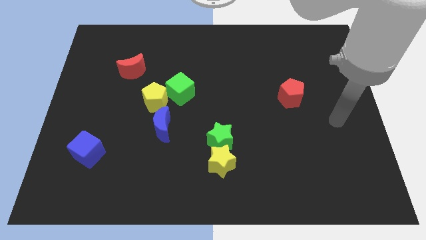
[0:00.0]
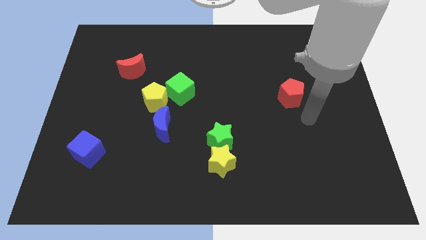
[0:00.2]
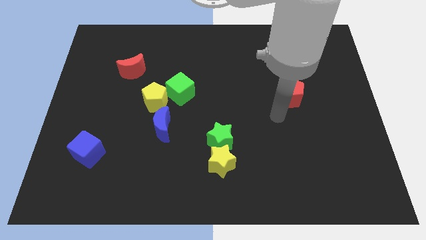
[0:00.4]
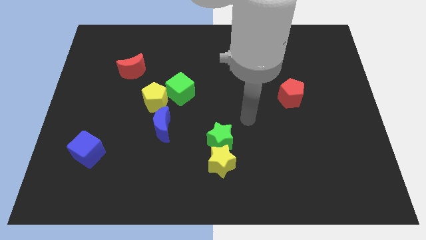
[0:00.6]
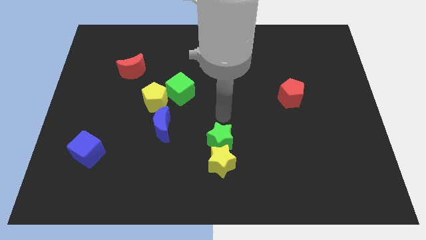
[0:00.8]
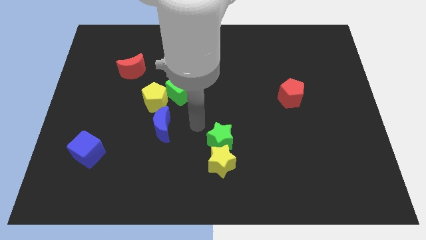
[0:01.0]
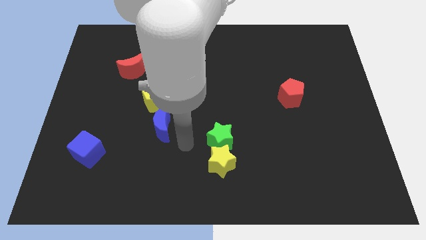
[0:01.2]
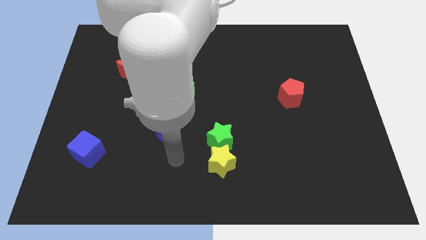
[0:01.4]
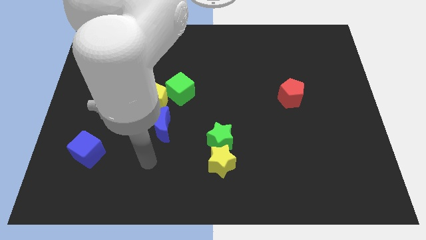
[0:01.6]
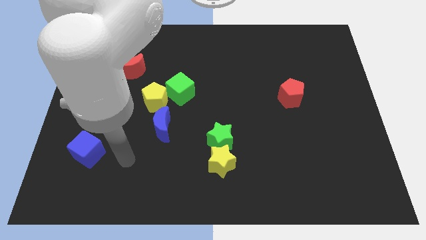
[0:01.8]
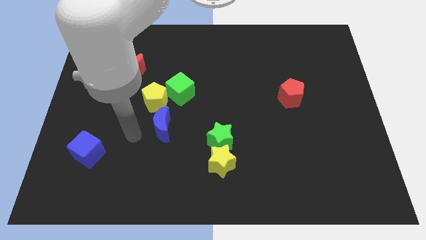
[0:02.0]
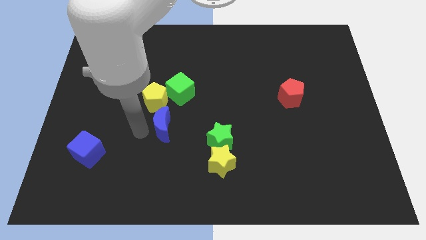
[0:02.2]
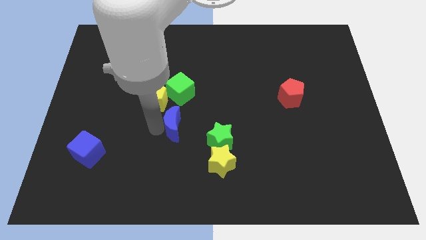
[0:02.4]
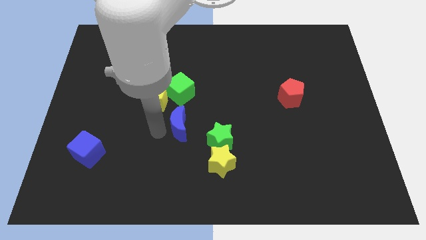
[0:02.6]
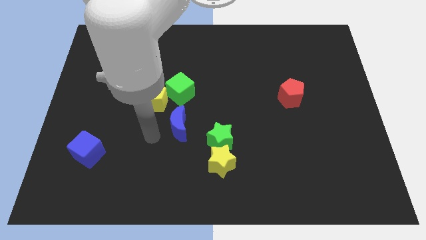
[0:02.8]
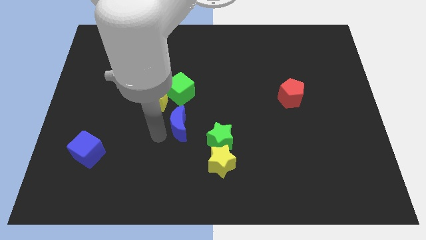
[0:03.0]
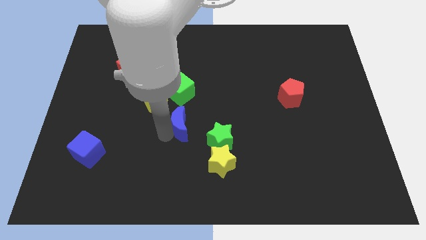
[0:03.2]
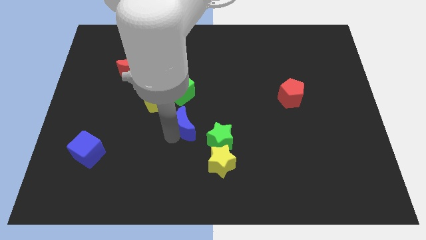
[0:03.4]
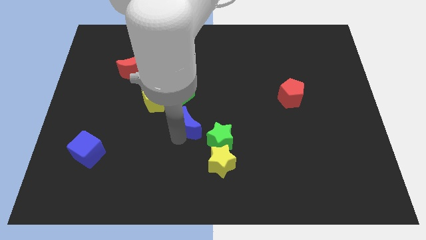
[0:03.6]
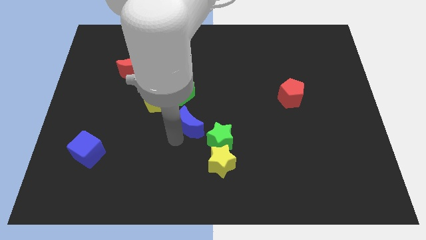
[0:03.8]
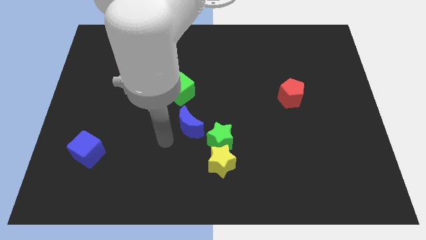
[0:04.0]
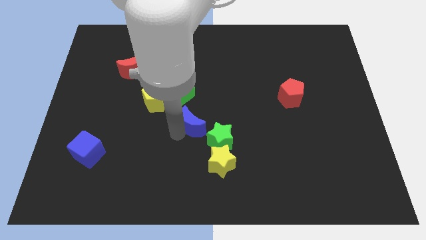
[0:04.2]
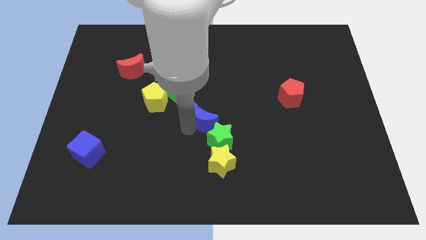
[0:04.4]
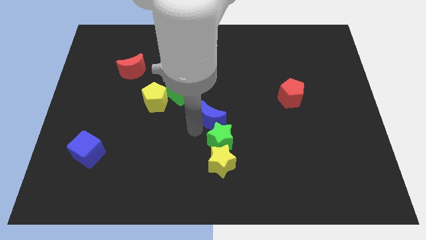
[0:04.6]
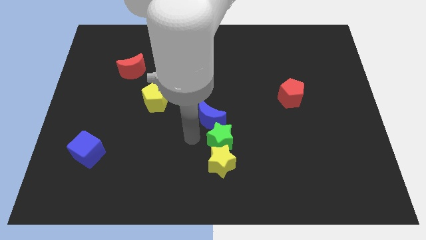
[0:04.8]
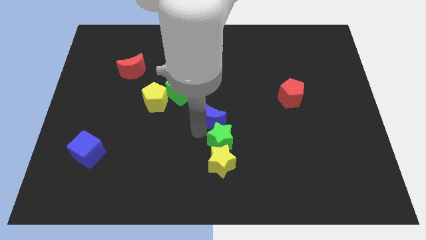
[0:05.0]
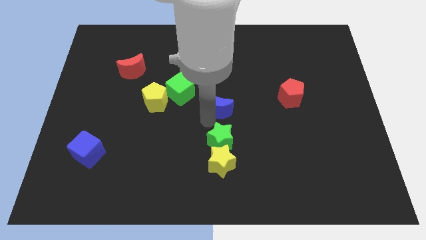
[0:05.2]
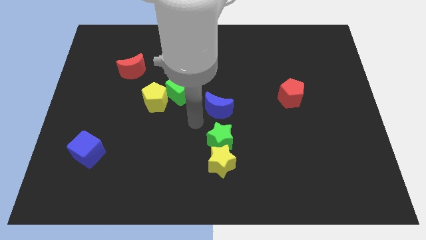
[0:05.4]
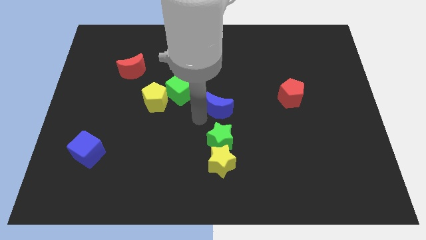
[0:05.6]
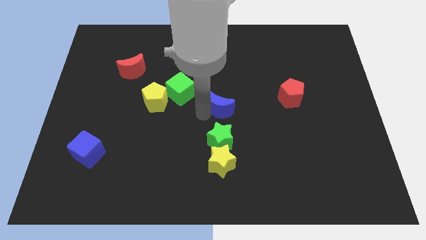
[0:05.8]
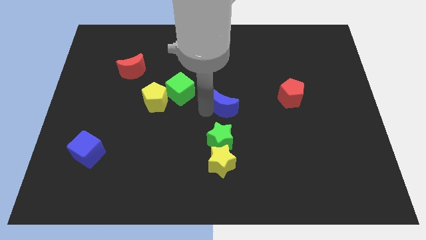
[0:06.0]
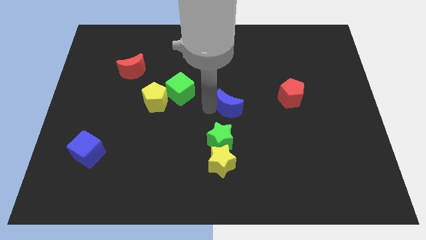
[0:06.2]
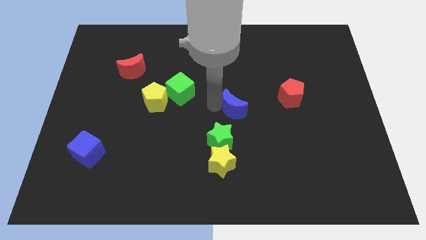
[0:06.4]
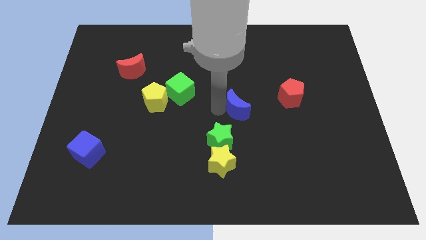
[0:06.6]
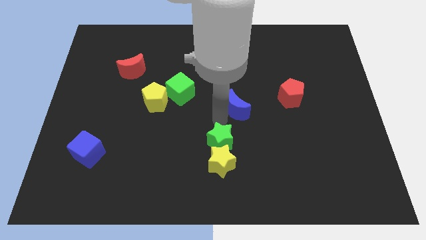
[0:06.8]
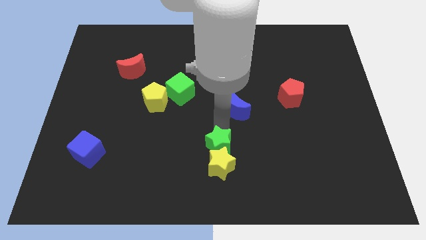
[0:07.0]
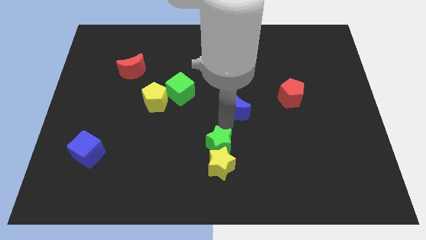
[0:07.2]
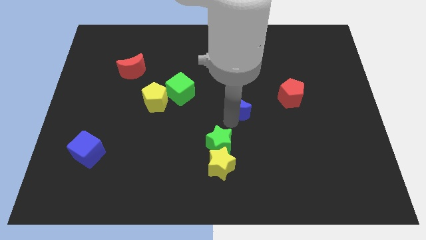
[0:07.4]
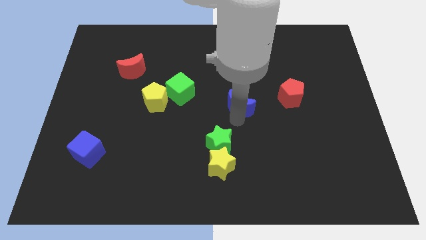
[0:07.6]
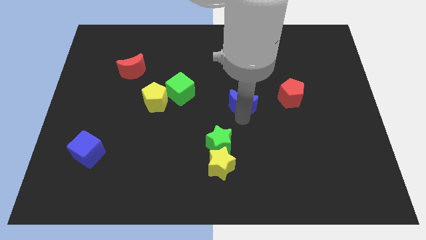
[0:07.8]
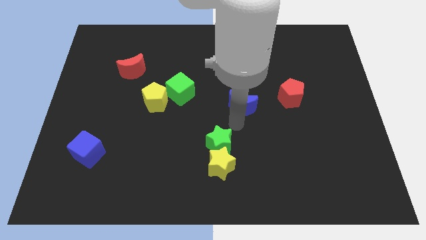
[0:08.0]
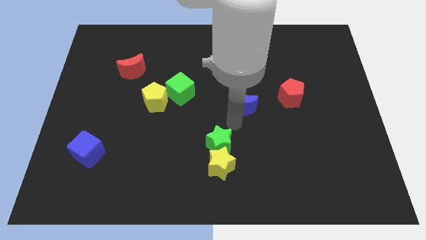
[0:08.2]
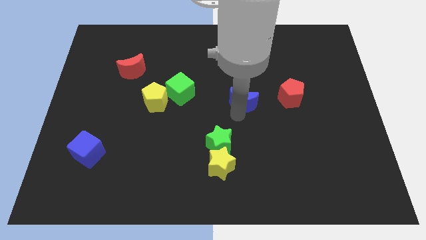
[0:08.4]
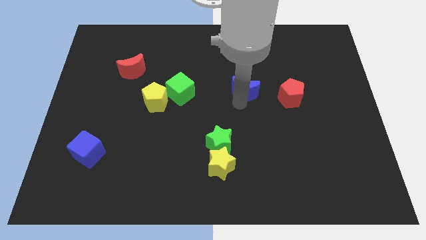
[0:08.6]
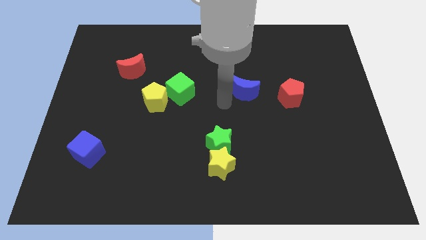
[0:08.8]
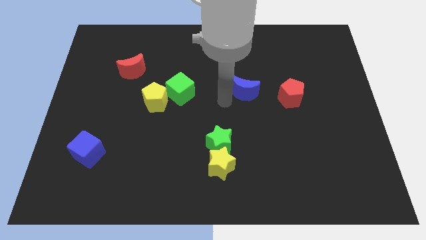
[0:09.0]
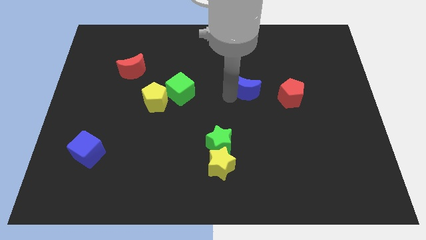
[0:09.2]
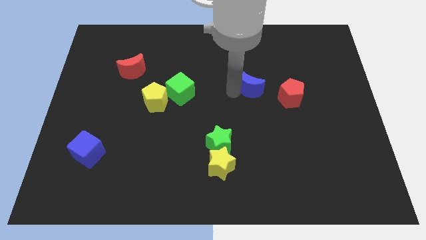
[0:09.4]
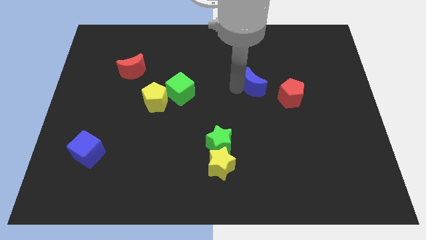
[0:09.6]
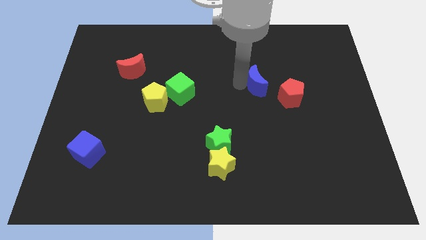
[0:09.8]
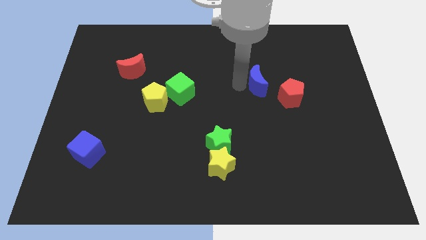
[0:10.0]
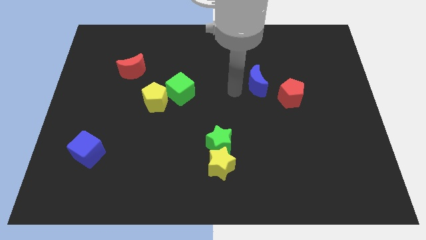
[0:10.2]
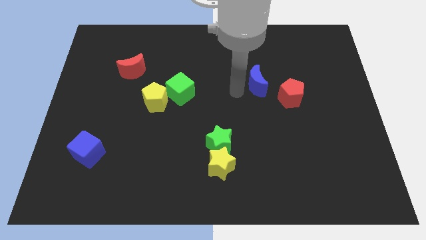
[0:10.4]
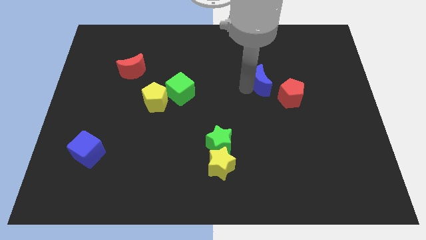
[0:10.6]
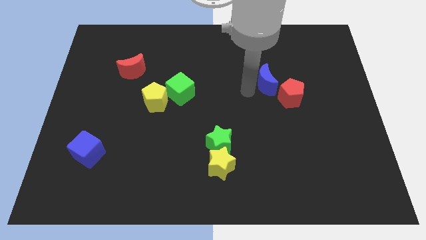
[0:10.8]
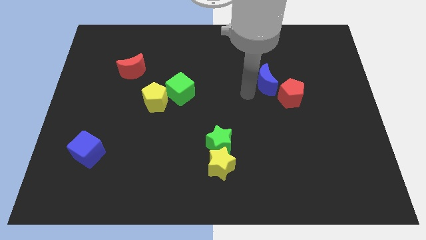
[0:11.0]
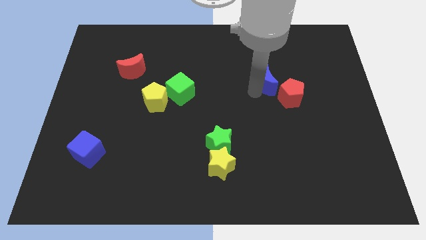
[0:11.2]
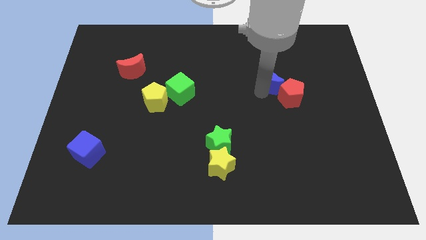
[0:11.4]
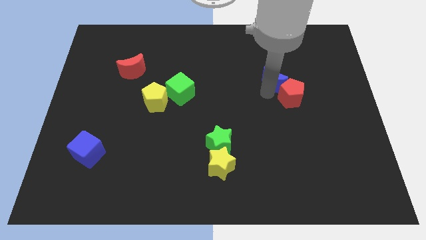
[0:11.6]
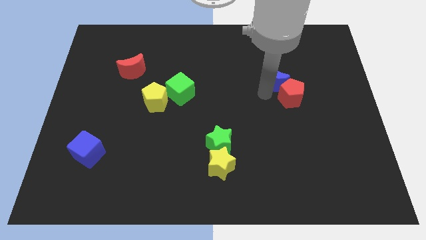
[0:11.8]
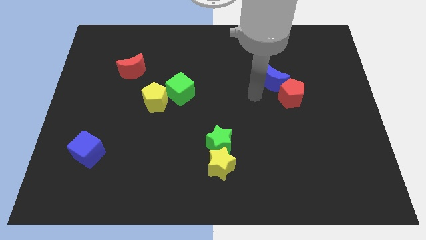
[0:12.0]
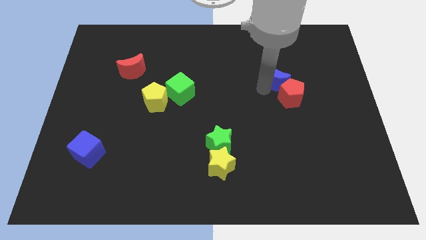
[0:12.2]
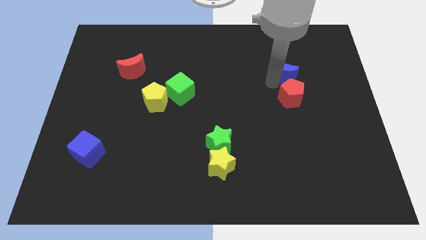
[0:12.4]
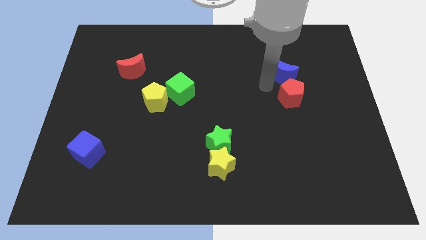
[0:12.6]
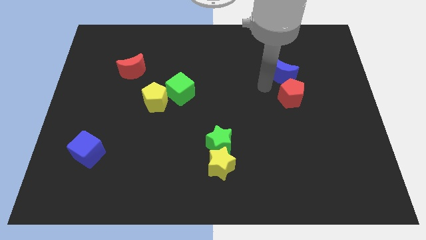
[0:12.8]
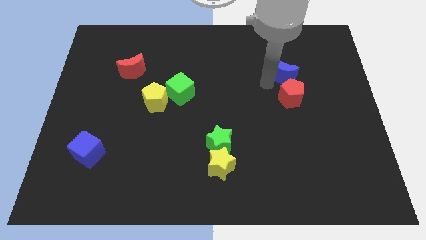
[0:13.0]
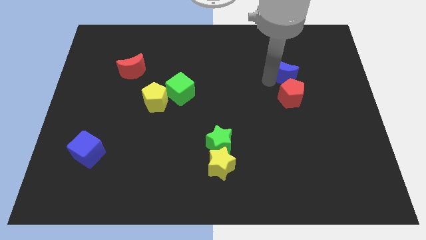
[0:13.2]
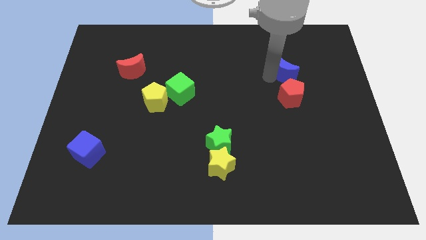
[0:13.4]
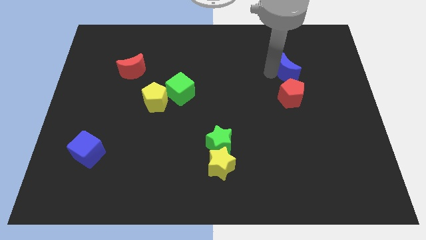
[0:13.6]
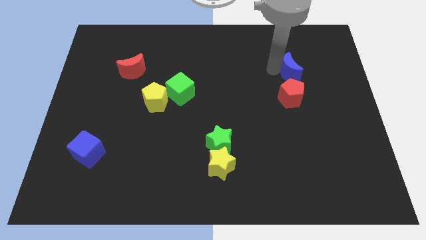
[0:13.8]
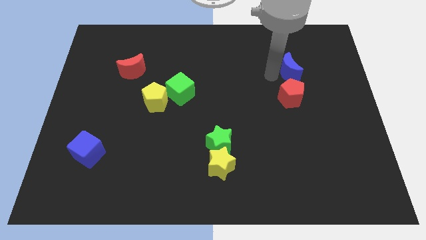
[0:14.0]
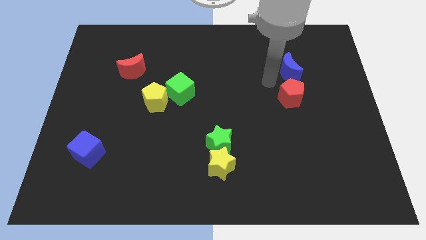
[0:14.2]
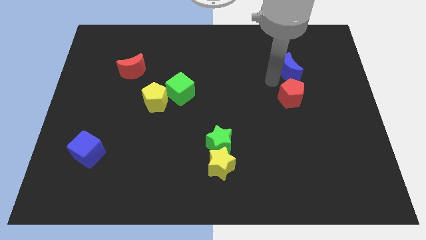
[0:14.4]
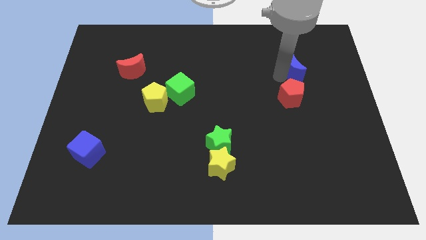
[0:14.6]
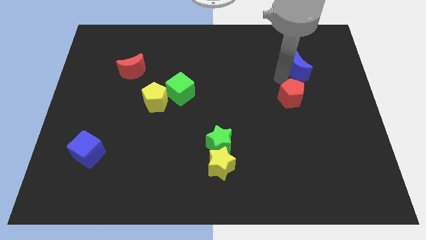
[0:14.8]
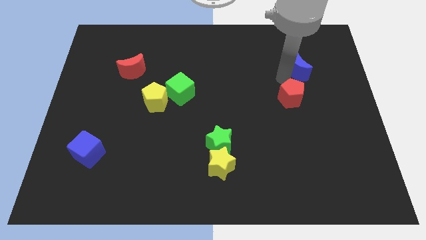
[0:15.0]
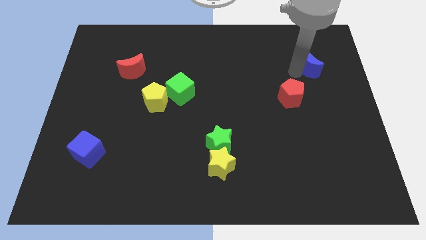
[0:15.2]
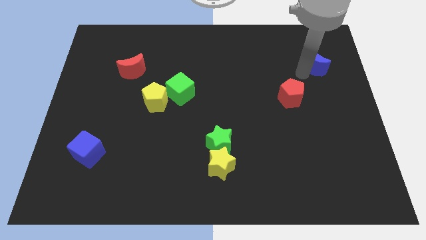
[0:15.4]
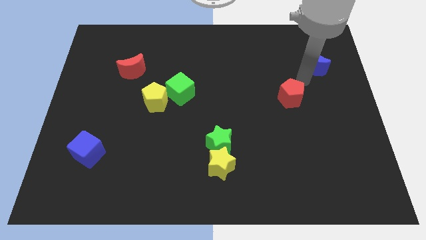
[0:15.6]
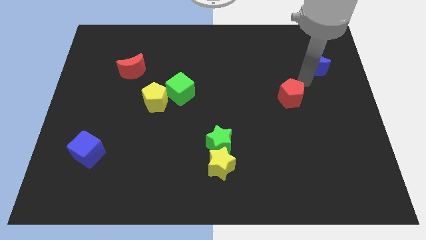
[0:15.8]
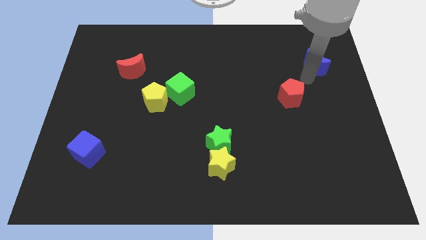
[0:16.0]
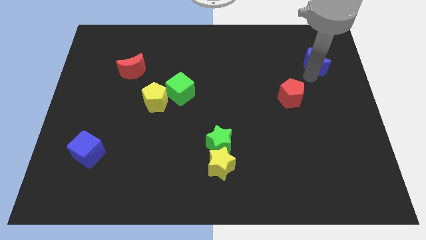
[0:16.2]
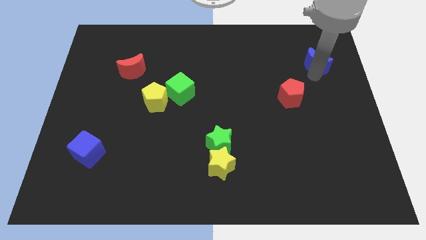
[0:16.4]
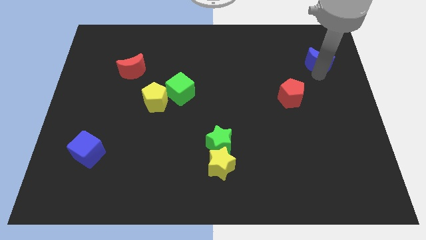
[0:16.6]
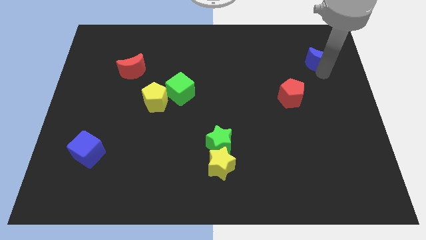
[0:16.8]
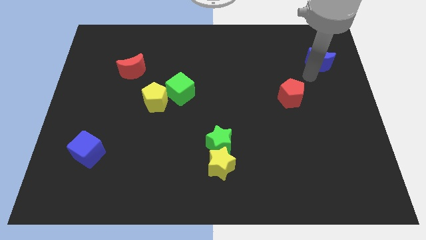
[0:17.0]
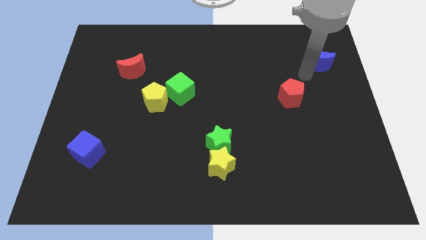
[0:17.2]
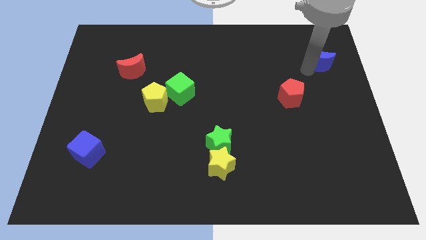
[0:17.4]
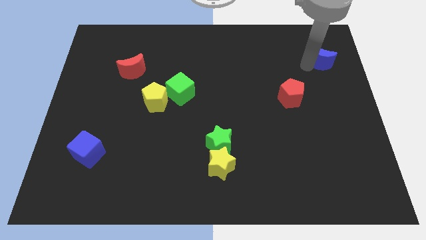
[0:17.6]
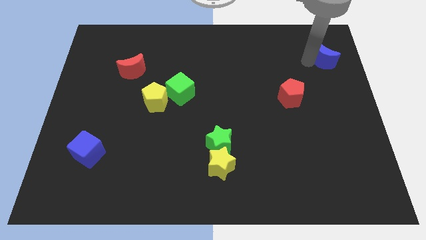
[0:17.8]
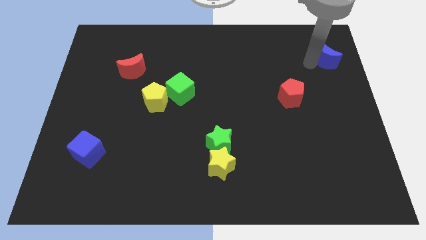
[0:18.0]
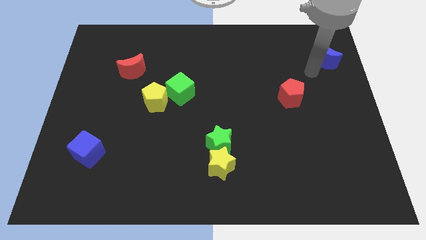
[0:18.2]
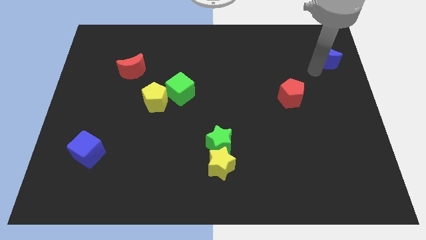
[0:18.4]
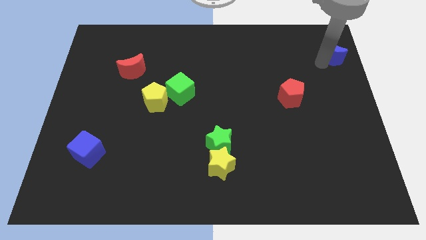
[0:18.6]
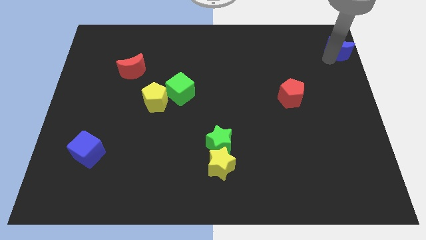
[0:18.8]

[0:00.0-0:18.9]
slide the blue moon to the top right
